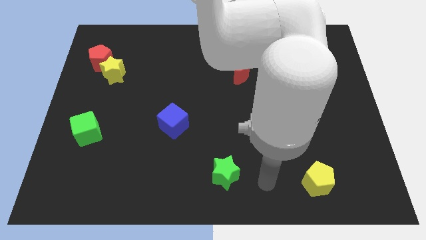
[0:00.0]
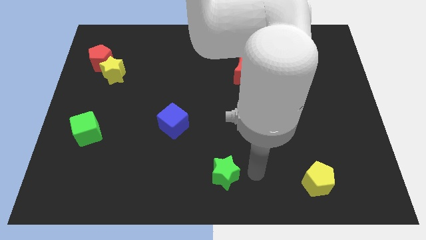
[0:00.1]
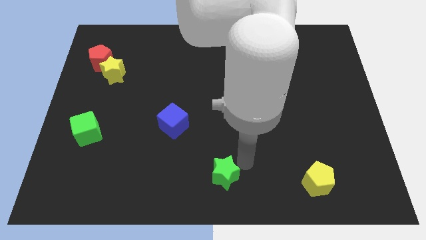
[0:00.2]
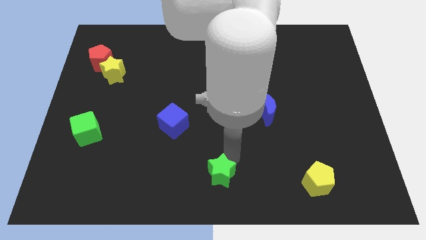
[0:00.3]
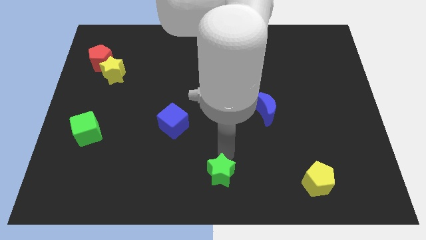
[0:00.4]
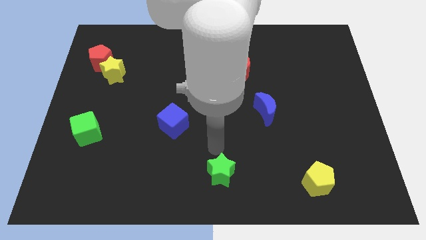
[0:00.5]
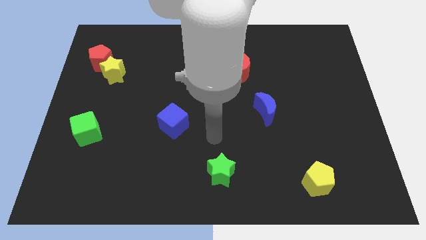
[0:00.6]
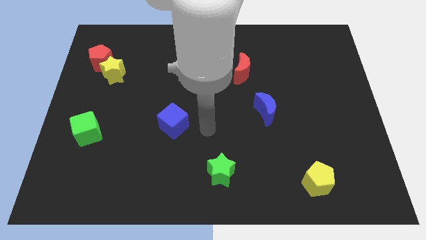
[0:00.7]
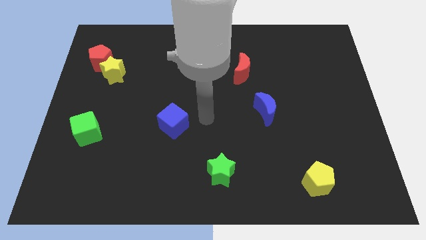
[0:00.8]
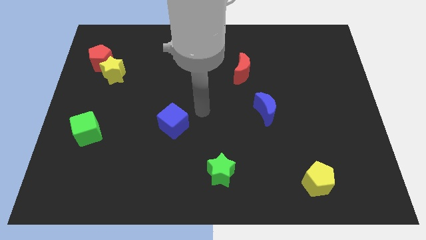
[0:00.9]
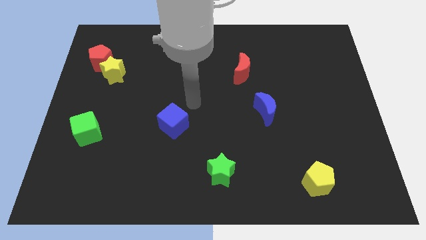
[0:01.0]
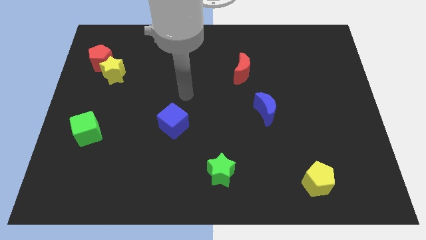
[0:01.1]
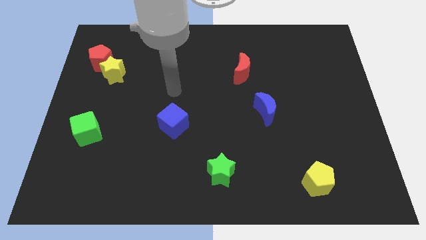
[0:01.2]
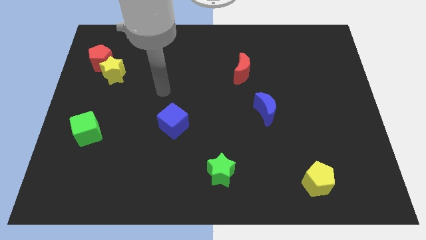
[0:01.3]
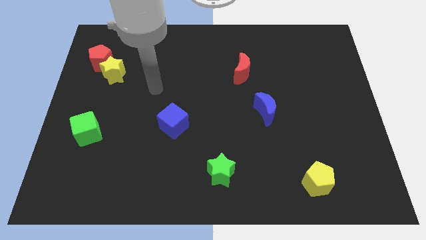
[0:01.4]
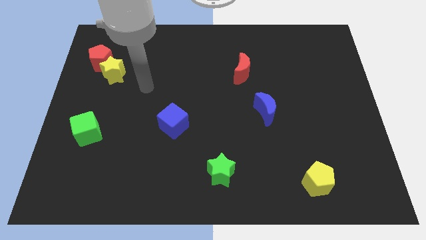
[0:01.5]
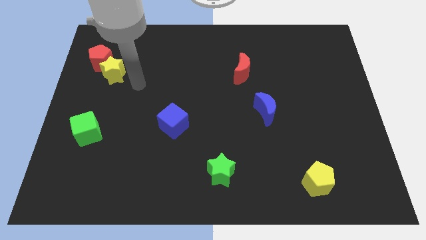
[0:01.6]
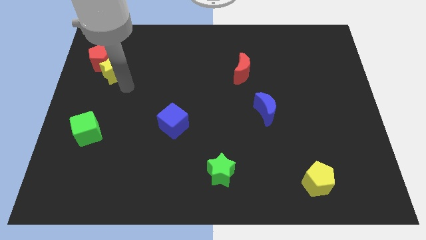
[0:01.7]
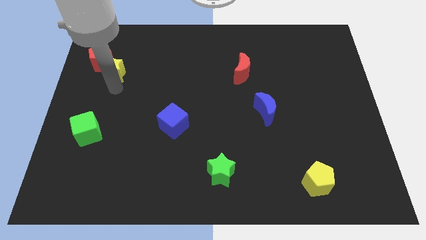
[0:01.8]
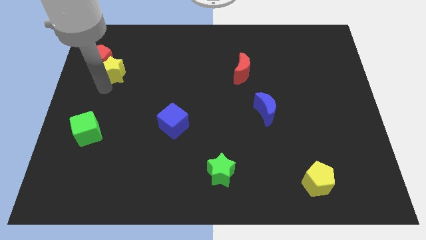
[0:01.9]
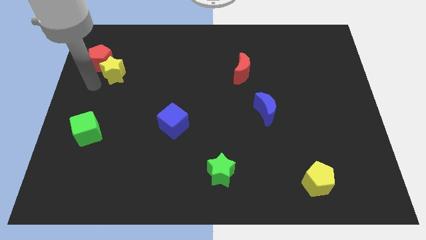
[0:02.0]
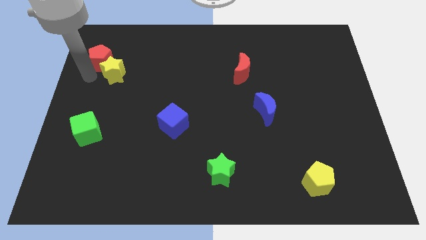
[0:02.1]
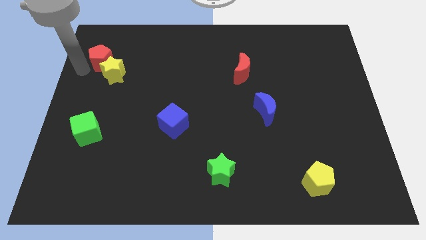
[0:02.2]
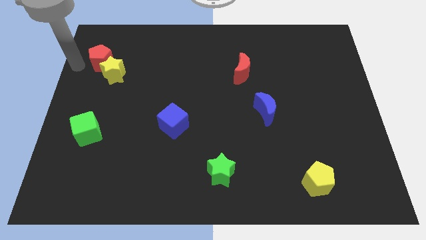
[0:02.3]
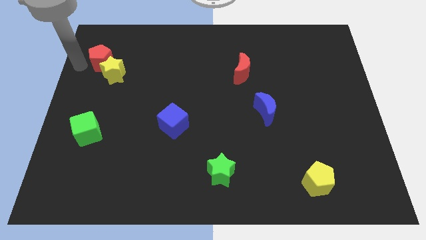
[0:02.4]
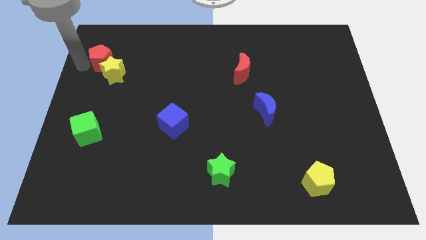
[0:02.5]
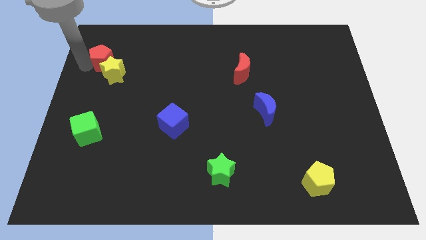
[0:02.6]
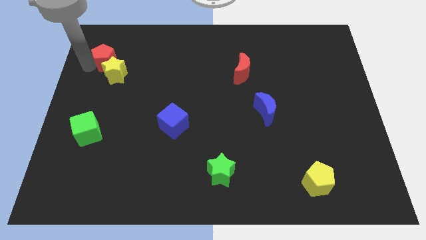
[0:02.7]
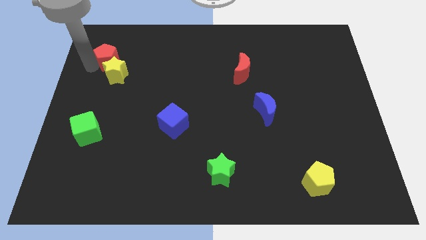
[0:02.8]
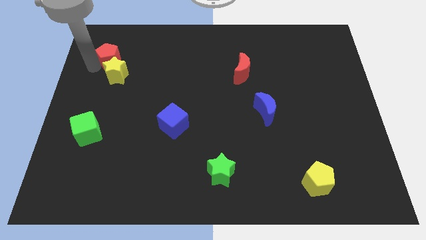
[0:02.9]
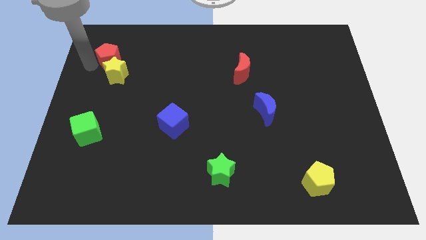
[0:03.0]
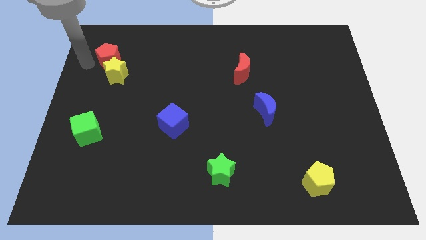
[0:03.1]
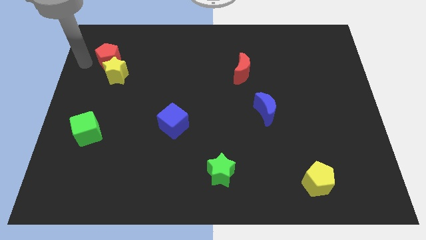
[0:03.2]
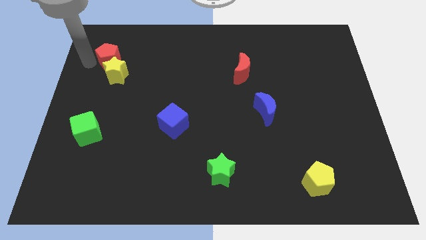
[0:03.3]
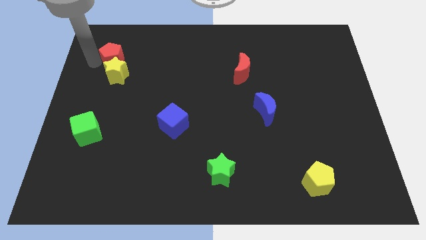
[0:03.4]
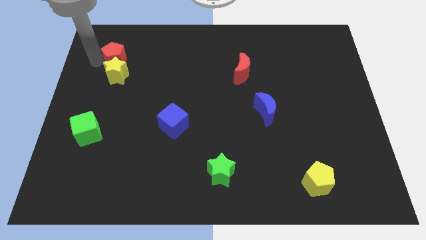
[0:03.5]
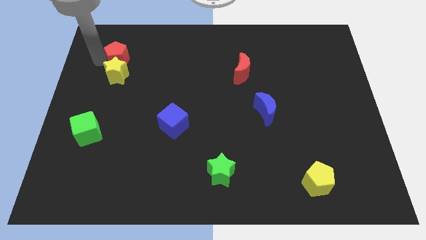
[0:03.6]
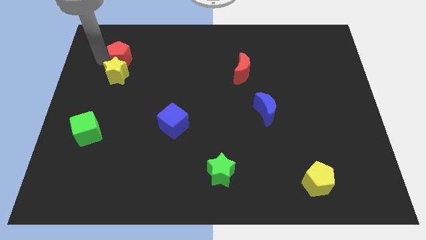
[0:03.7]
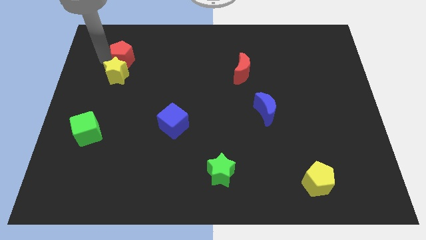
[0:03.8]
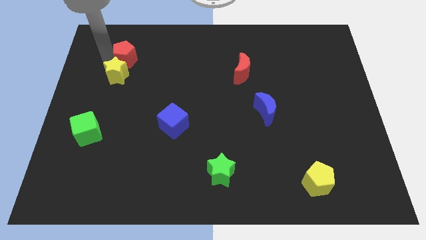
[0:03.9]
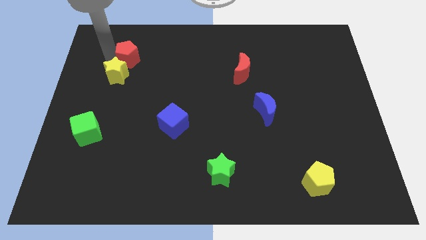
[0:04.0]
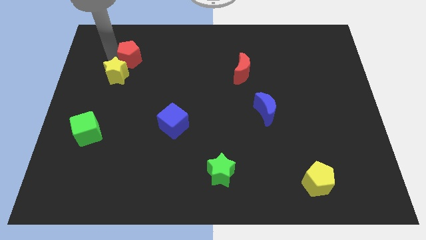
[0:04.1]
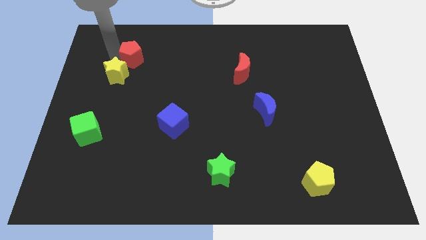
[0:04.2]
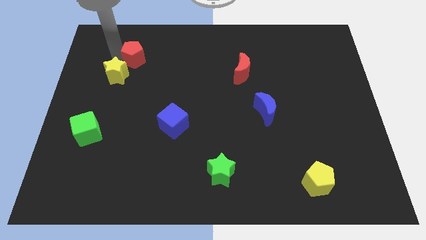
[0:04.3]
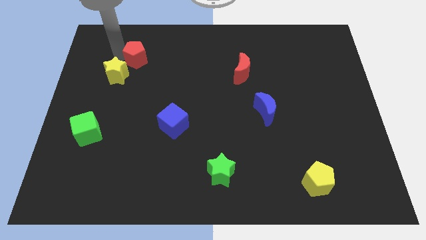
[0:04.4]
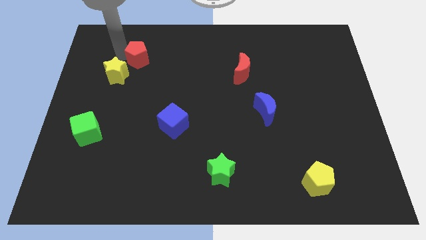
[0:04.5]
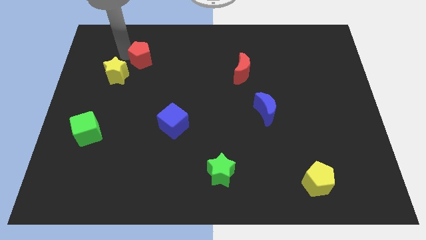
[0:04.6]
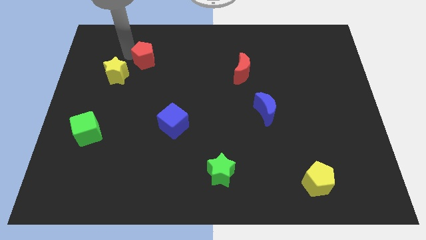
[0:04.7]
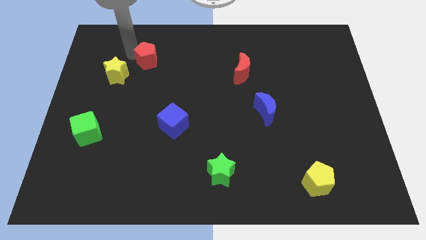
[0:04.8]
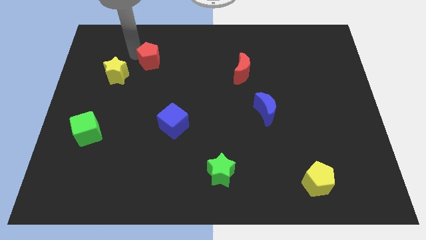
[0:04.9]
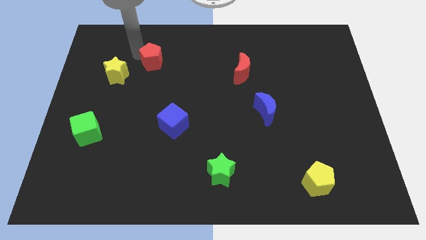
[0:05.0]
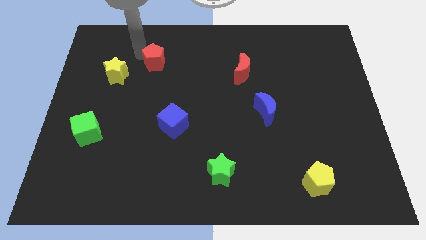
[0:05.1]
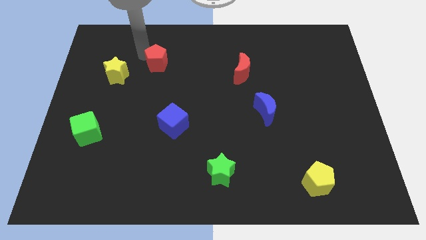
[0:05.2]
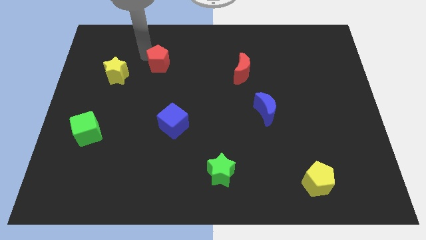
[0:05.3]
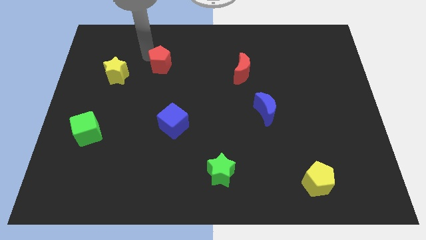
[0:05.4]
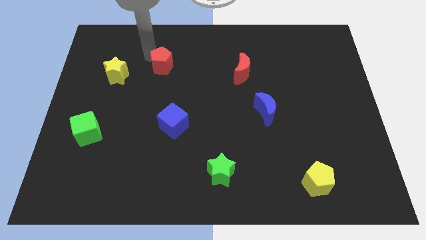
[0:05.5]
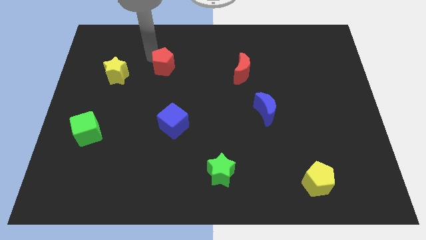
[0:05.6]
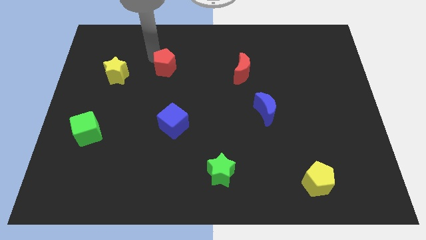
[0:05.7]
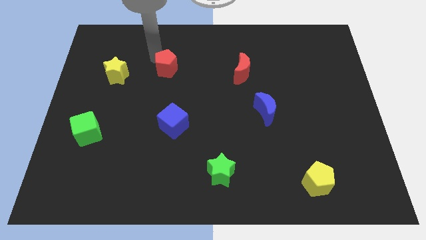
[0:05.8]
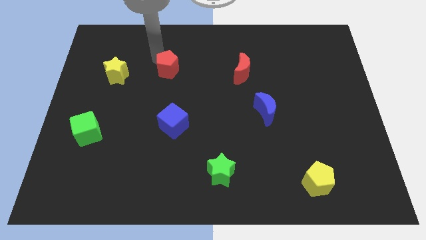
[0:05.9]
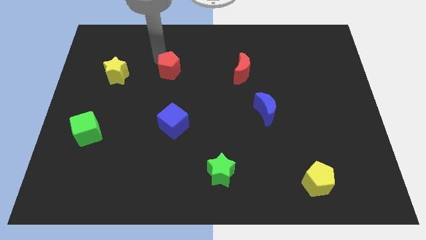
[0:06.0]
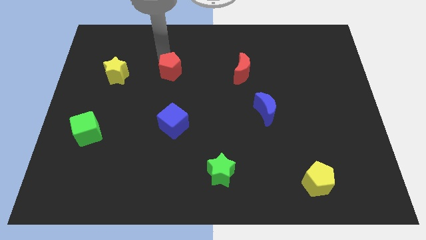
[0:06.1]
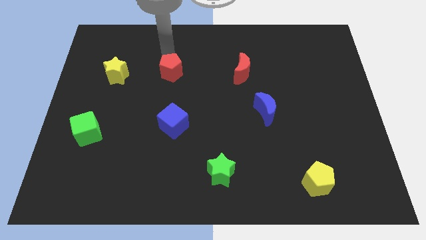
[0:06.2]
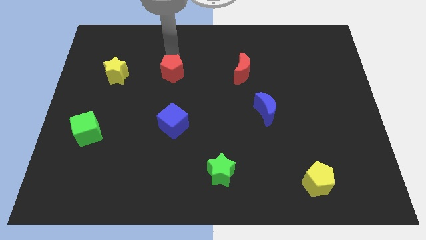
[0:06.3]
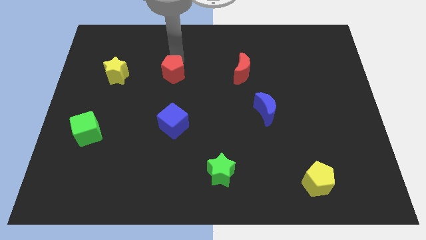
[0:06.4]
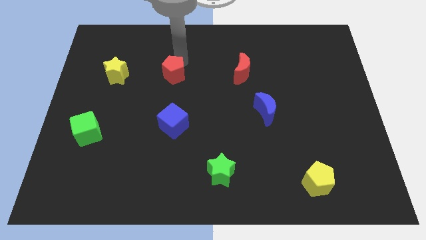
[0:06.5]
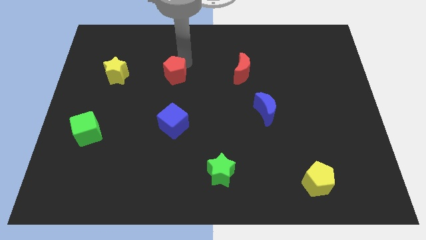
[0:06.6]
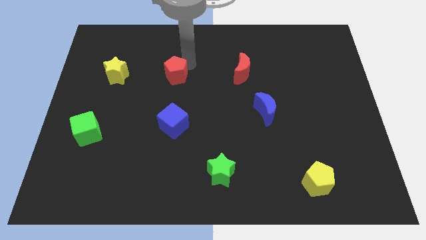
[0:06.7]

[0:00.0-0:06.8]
slide the red pentagon to the middle
